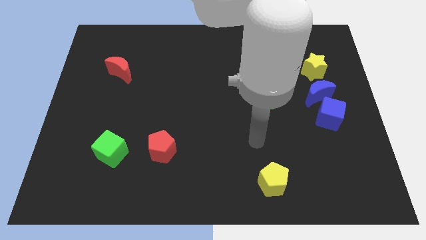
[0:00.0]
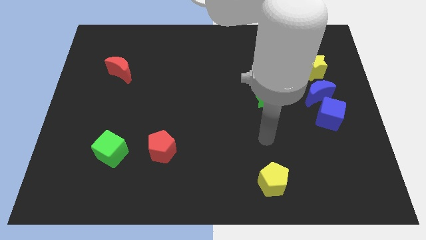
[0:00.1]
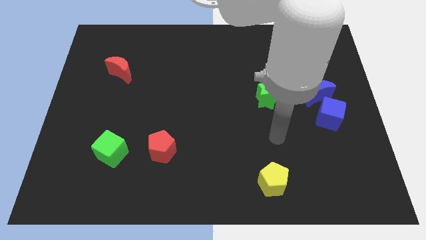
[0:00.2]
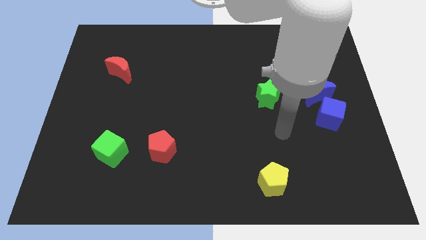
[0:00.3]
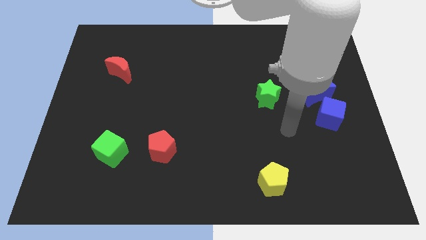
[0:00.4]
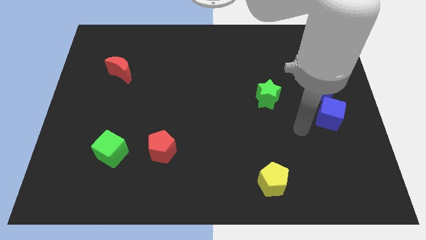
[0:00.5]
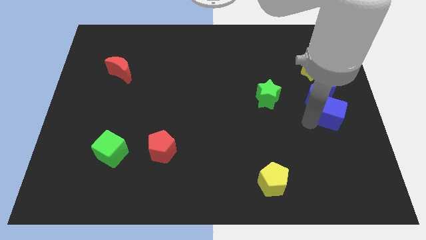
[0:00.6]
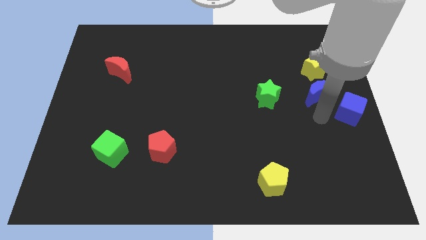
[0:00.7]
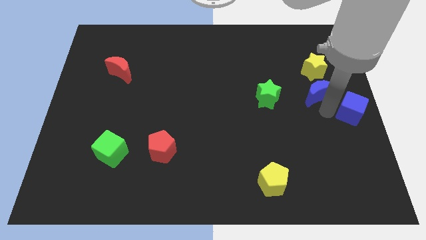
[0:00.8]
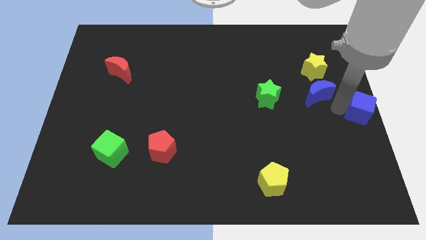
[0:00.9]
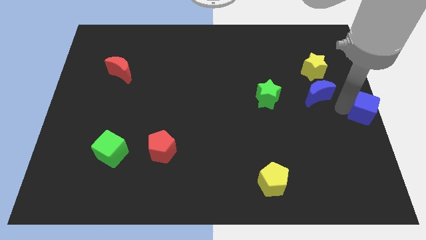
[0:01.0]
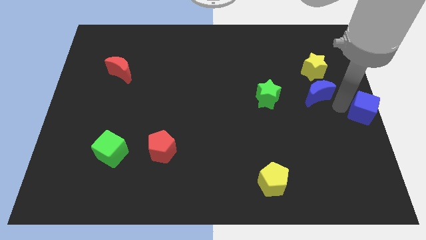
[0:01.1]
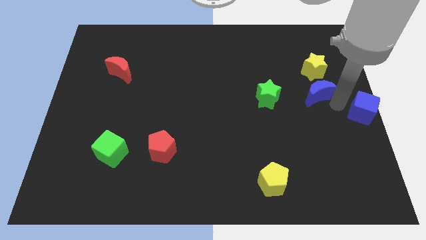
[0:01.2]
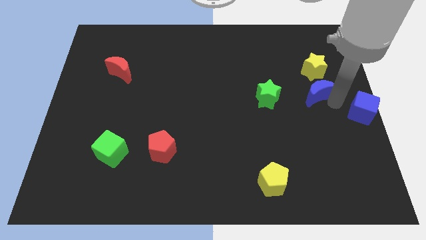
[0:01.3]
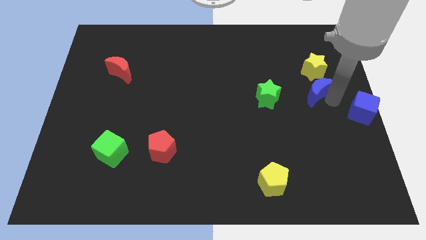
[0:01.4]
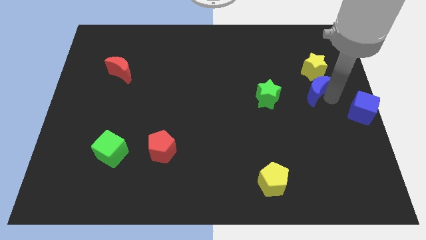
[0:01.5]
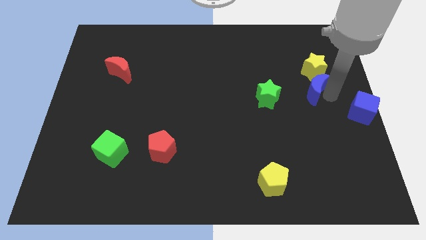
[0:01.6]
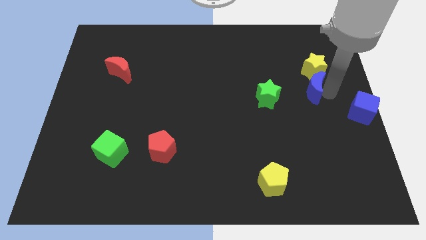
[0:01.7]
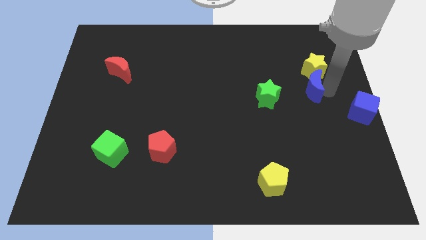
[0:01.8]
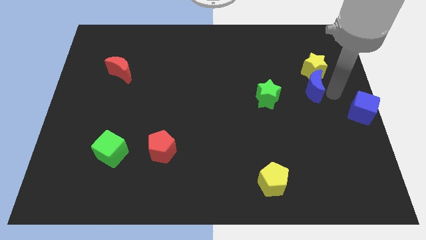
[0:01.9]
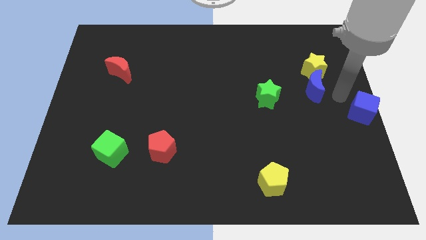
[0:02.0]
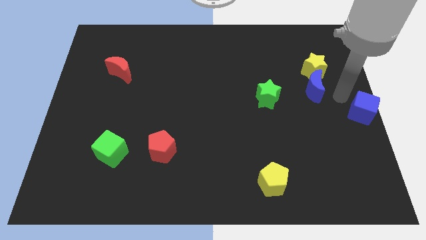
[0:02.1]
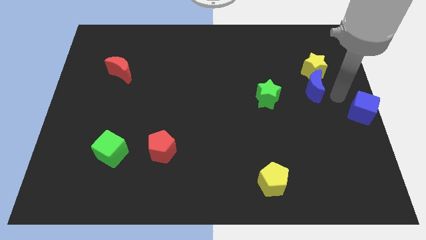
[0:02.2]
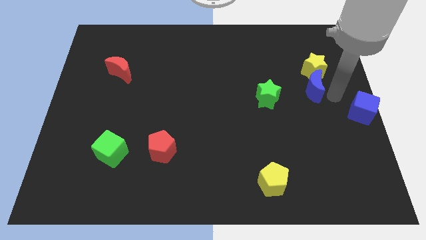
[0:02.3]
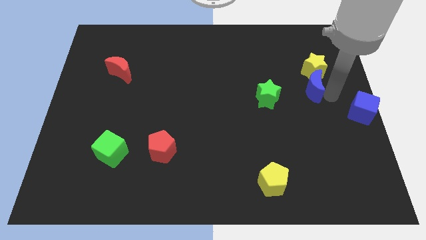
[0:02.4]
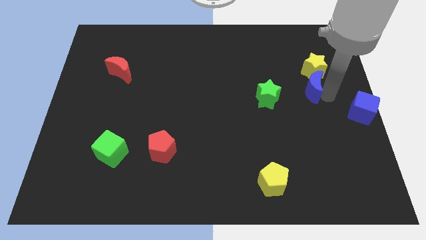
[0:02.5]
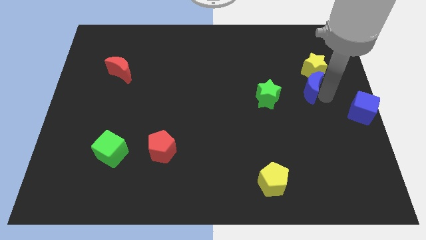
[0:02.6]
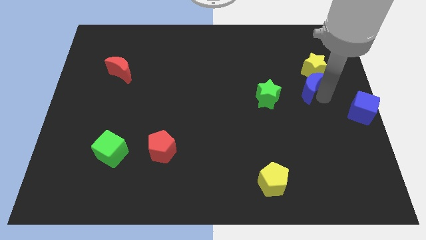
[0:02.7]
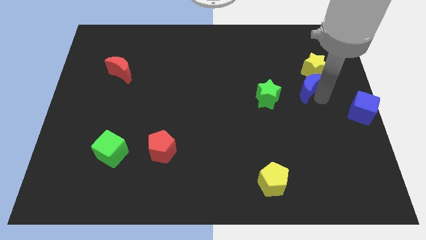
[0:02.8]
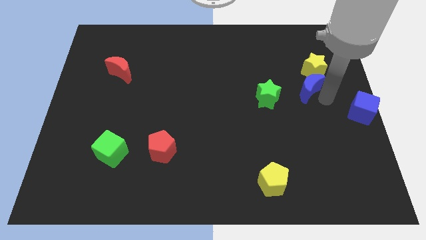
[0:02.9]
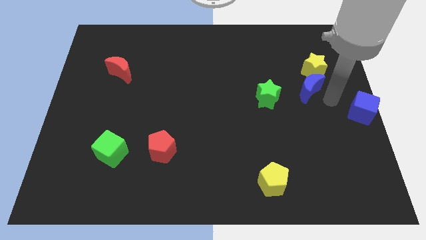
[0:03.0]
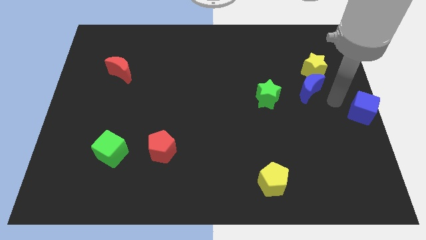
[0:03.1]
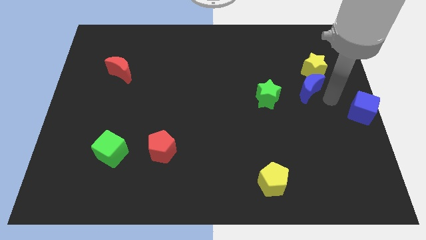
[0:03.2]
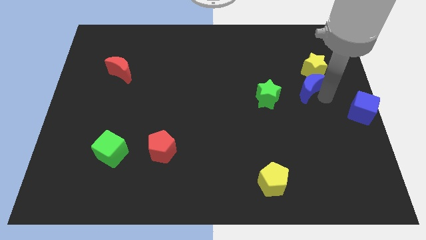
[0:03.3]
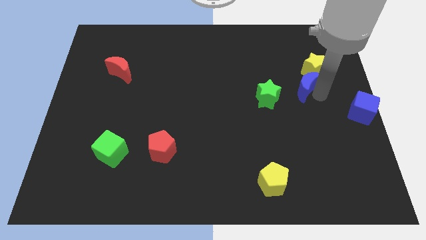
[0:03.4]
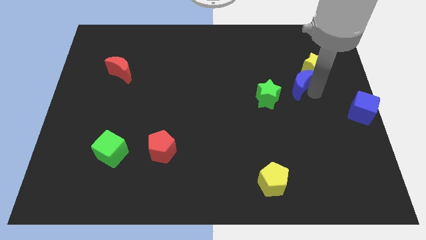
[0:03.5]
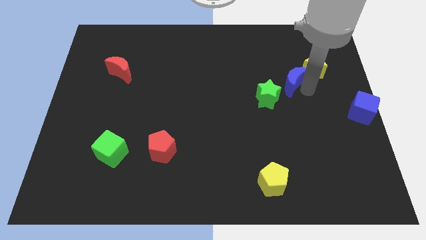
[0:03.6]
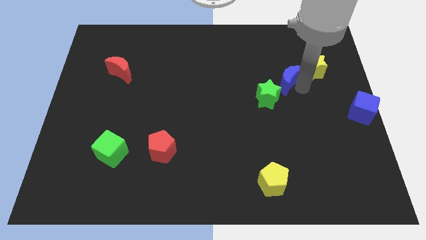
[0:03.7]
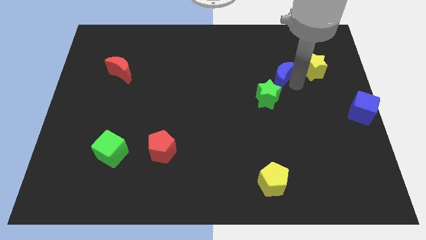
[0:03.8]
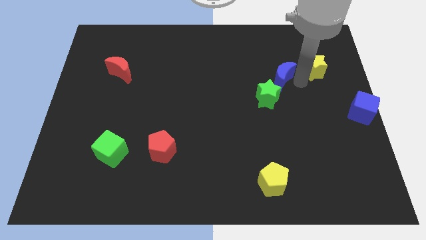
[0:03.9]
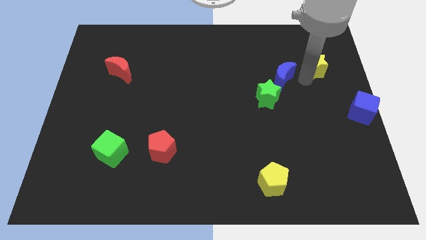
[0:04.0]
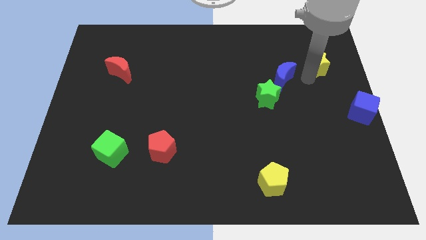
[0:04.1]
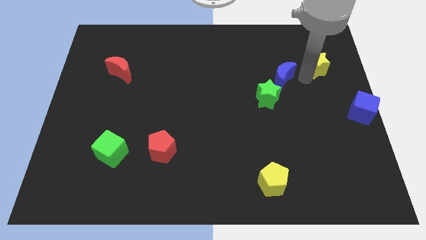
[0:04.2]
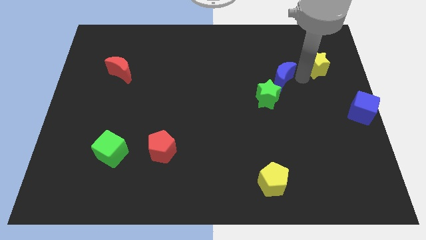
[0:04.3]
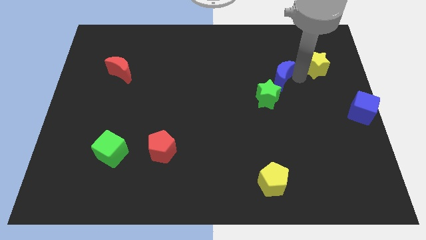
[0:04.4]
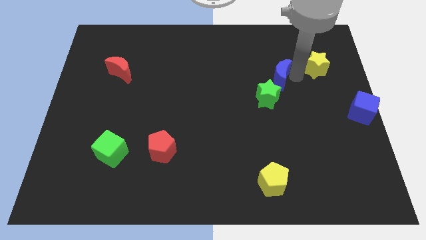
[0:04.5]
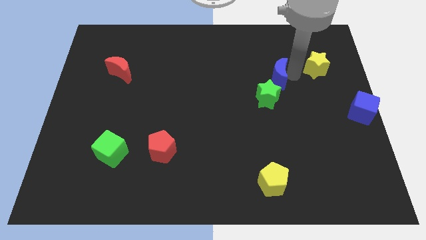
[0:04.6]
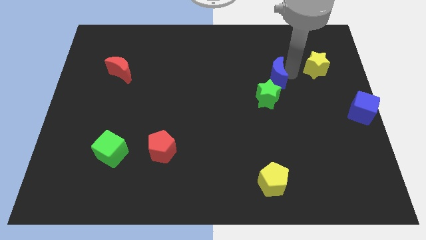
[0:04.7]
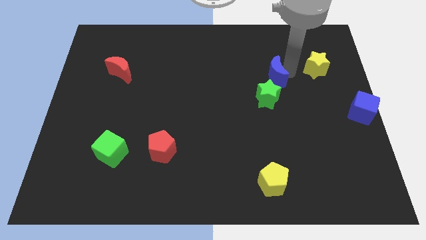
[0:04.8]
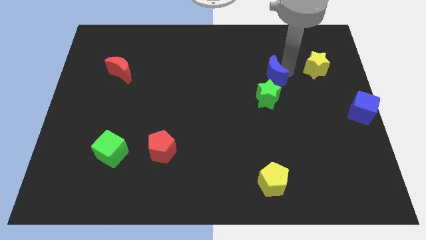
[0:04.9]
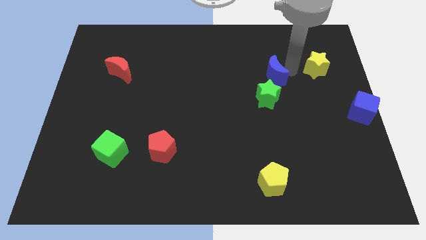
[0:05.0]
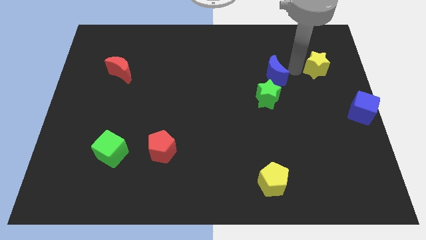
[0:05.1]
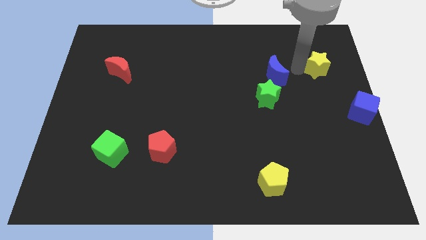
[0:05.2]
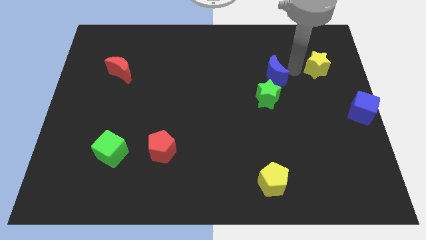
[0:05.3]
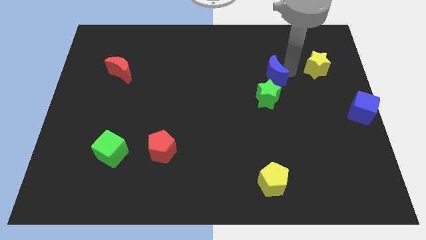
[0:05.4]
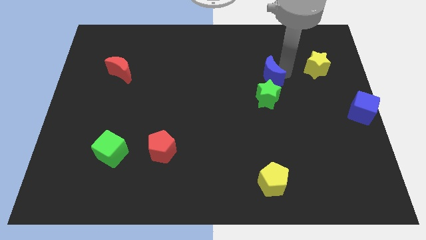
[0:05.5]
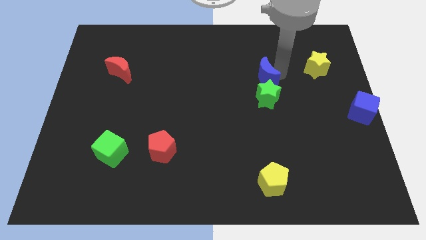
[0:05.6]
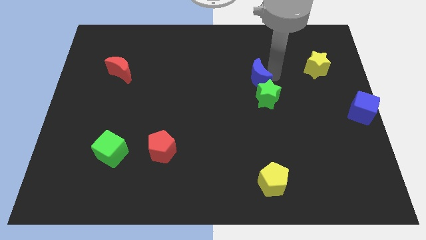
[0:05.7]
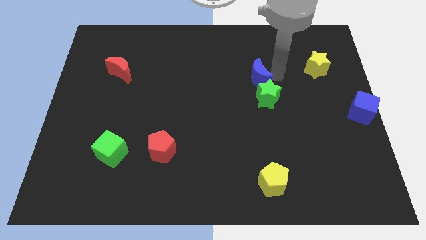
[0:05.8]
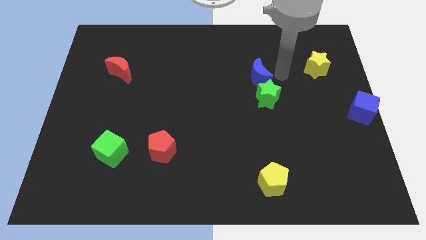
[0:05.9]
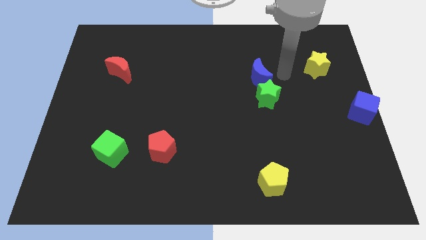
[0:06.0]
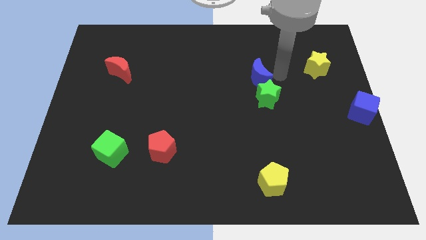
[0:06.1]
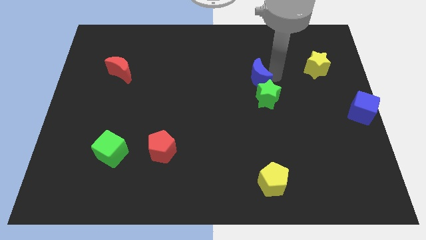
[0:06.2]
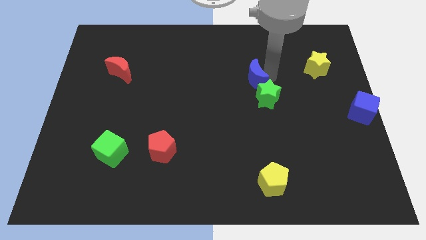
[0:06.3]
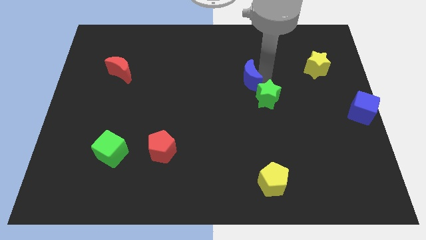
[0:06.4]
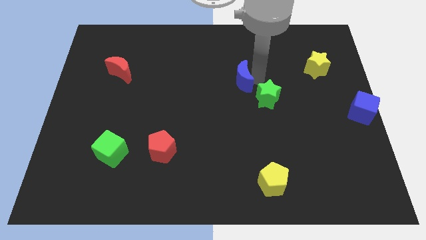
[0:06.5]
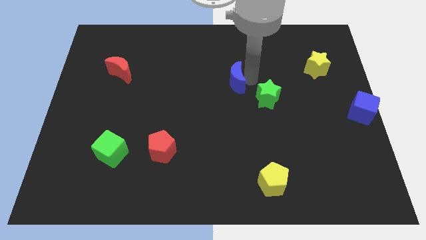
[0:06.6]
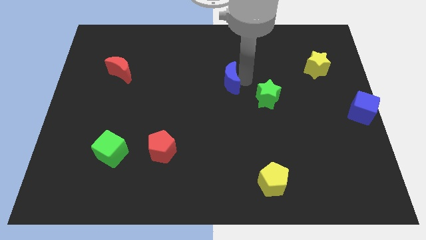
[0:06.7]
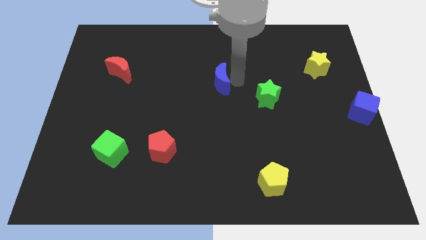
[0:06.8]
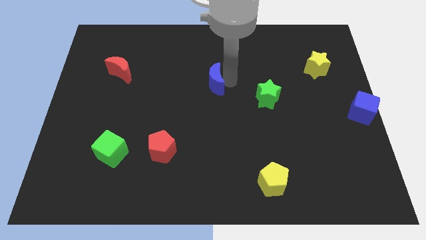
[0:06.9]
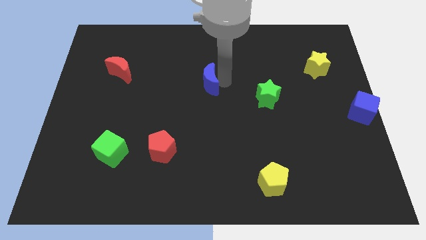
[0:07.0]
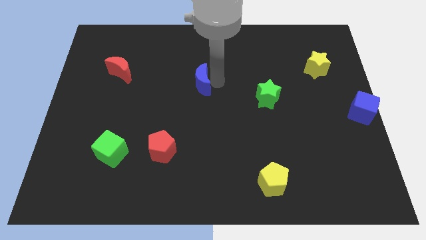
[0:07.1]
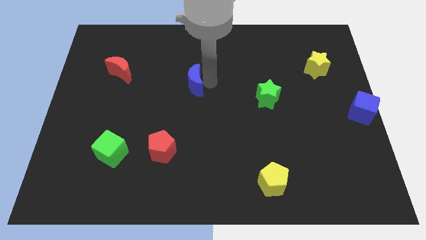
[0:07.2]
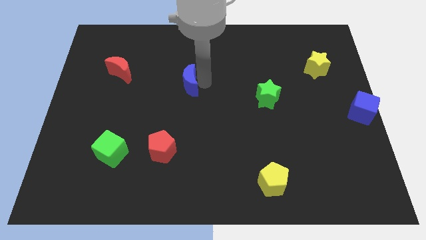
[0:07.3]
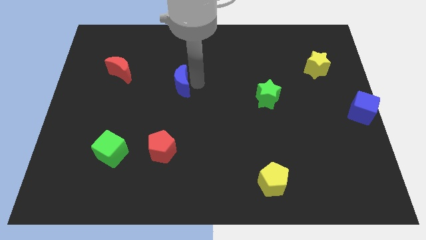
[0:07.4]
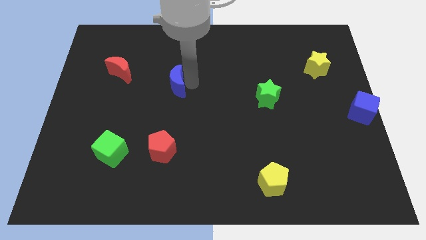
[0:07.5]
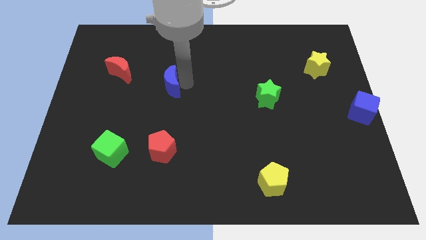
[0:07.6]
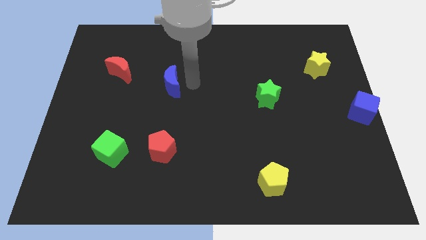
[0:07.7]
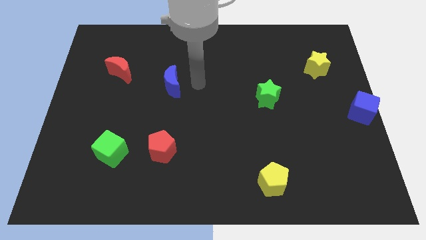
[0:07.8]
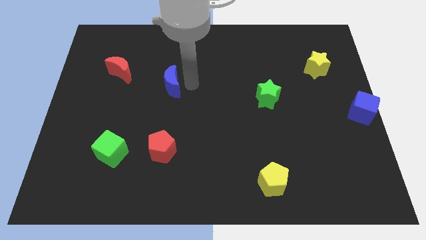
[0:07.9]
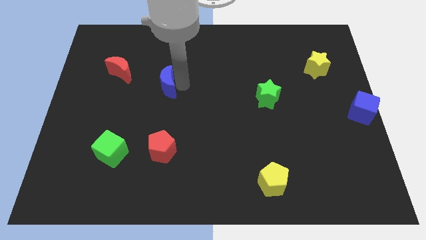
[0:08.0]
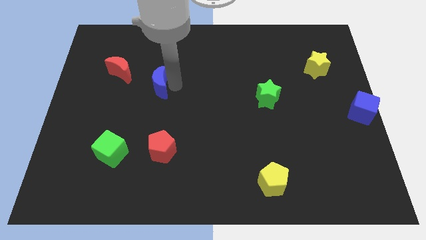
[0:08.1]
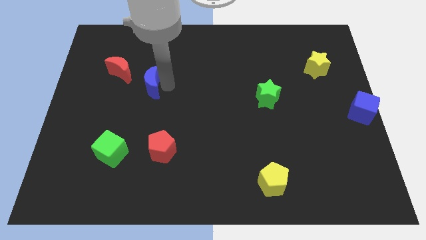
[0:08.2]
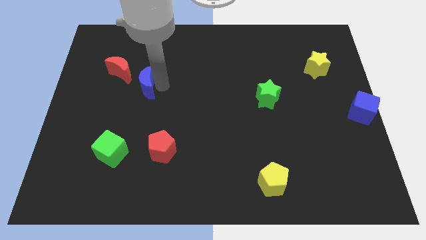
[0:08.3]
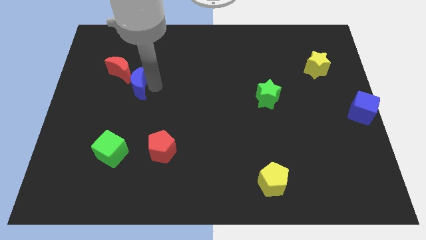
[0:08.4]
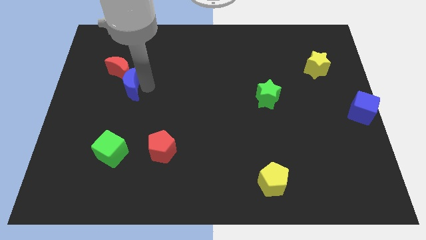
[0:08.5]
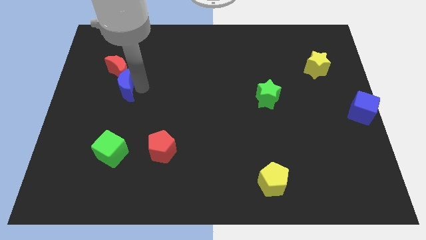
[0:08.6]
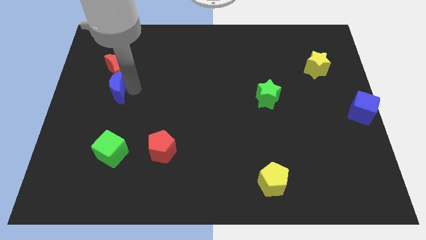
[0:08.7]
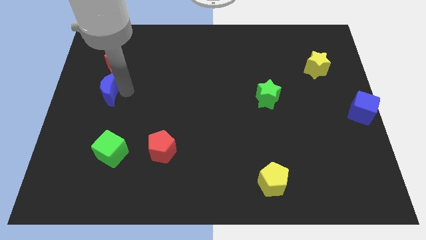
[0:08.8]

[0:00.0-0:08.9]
push the blue moon to the bottom left side of the red moon
